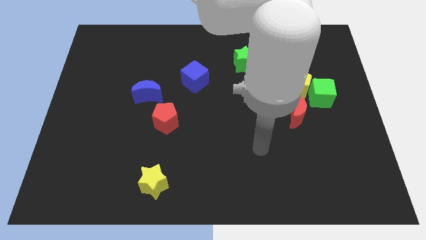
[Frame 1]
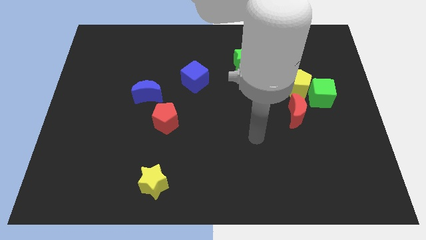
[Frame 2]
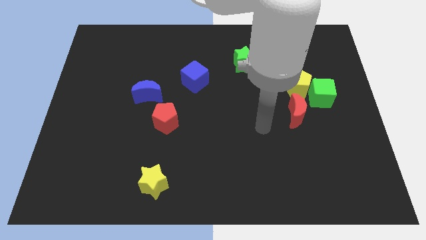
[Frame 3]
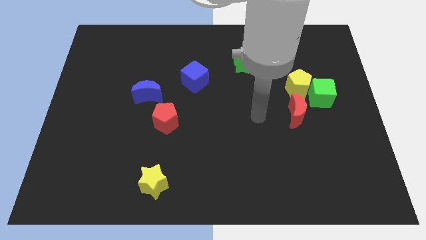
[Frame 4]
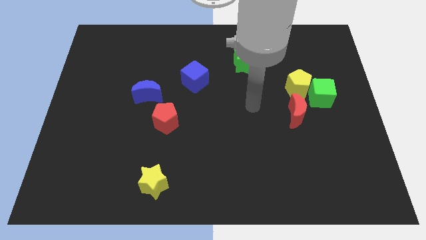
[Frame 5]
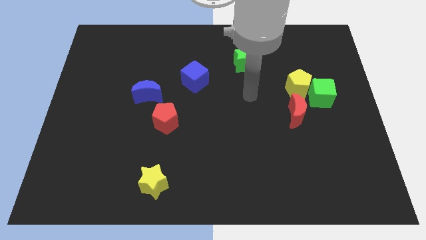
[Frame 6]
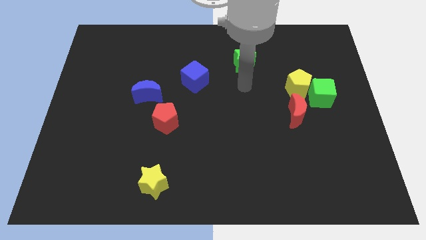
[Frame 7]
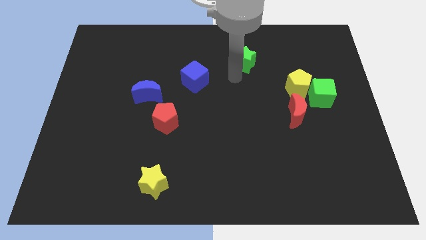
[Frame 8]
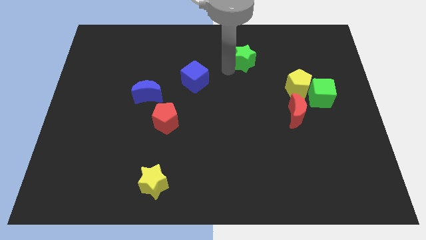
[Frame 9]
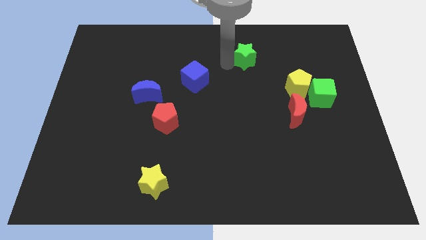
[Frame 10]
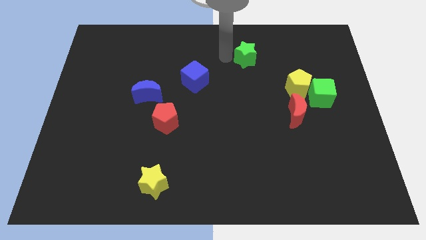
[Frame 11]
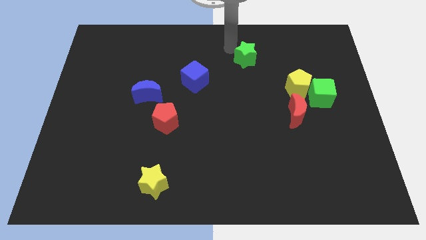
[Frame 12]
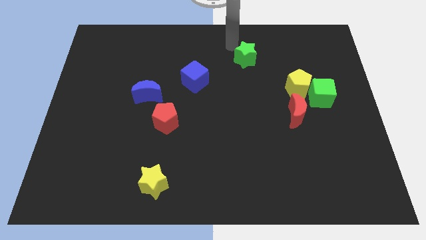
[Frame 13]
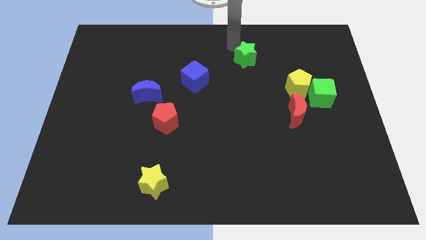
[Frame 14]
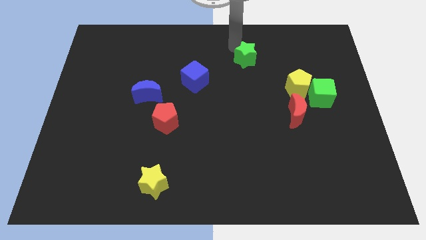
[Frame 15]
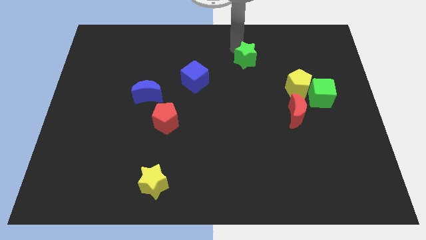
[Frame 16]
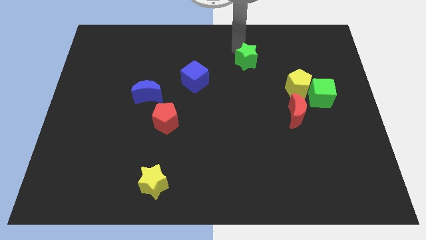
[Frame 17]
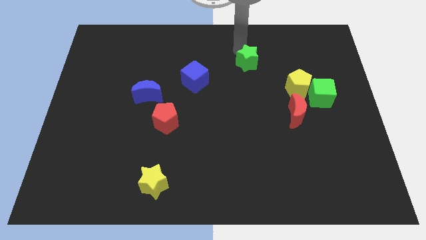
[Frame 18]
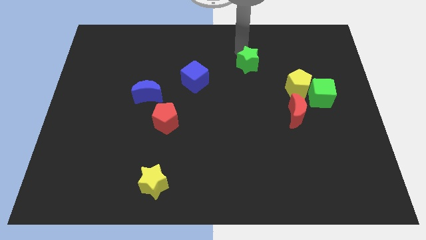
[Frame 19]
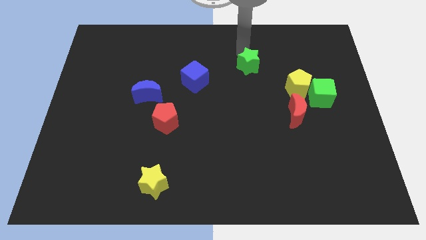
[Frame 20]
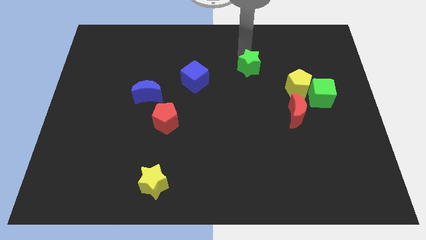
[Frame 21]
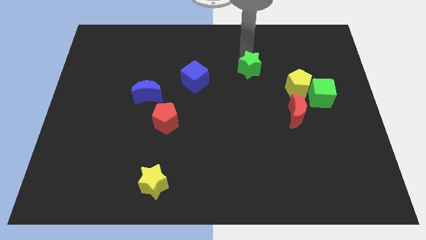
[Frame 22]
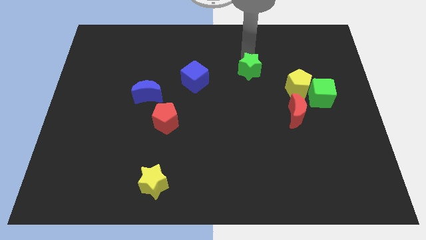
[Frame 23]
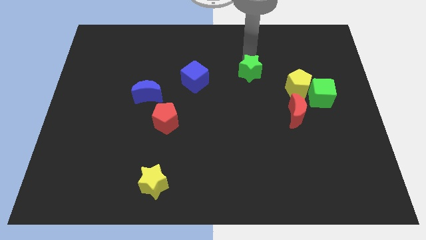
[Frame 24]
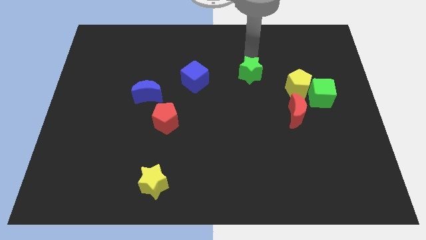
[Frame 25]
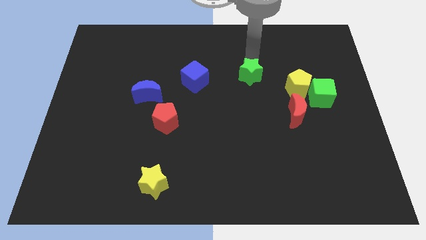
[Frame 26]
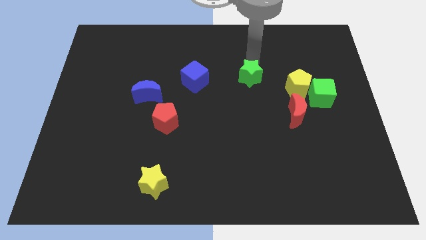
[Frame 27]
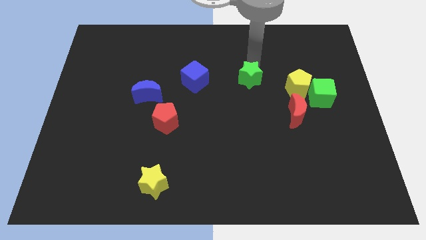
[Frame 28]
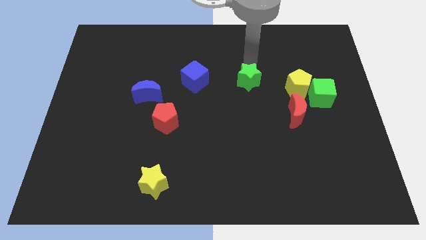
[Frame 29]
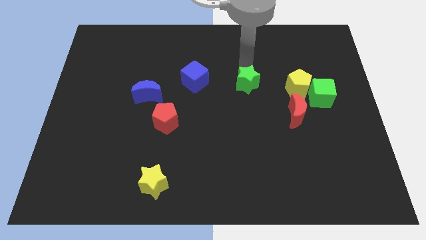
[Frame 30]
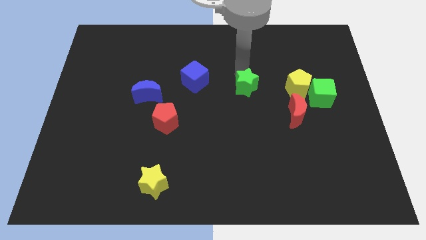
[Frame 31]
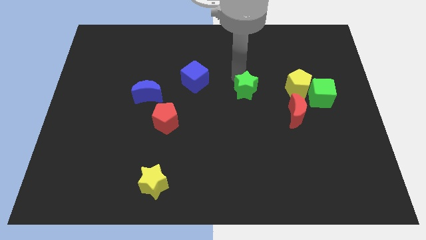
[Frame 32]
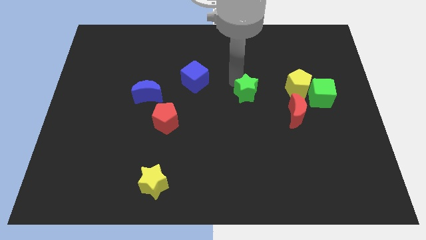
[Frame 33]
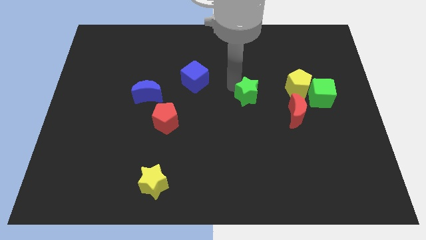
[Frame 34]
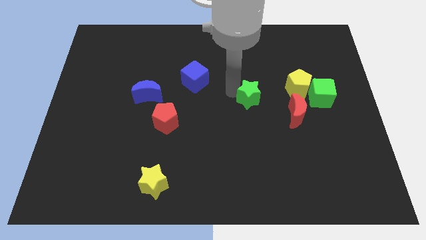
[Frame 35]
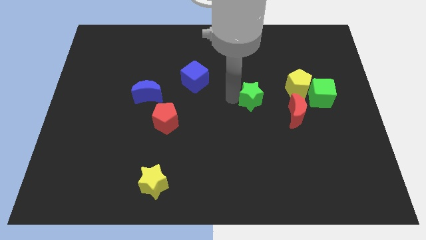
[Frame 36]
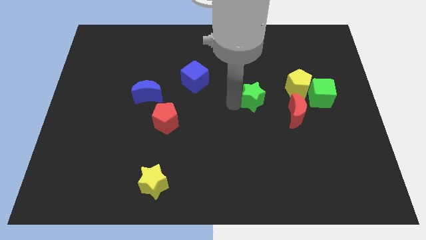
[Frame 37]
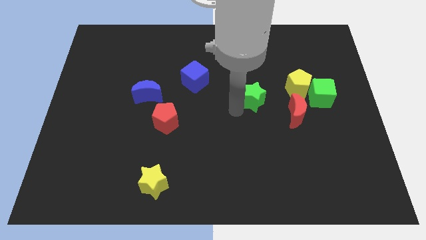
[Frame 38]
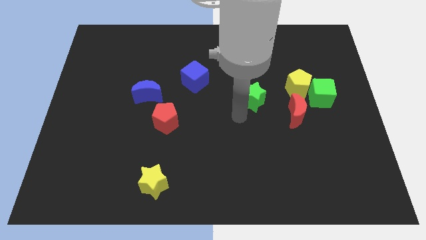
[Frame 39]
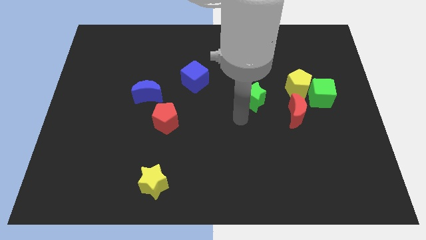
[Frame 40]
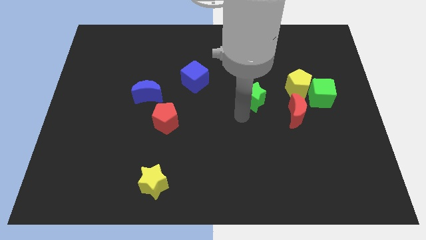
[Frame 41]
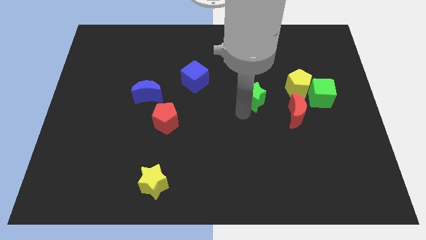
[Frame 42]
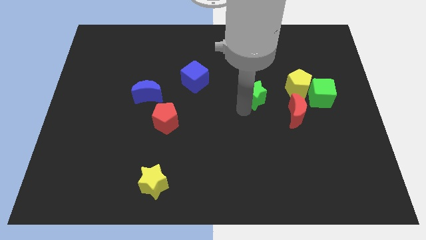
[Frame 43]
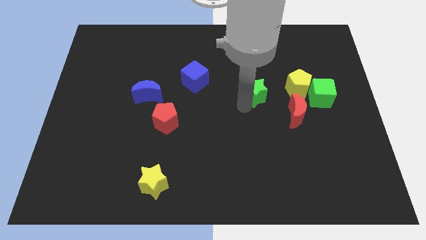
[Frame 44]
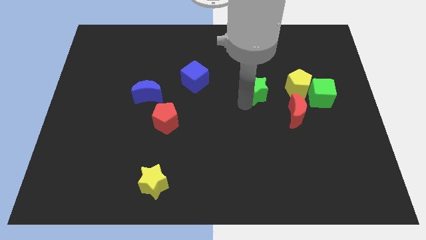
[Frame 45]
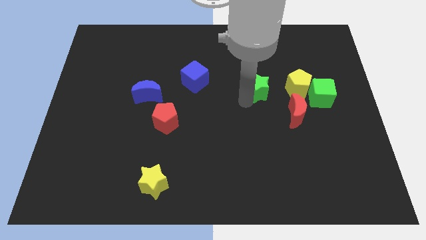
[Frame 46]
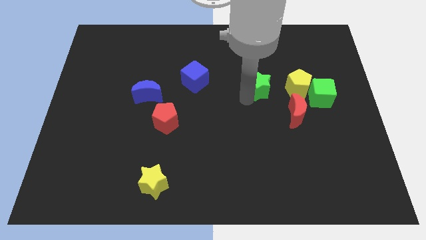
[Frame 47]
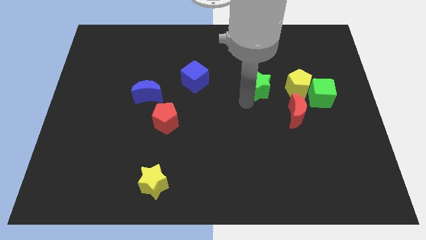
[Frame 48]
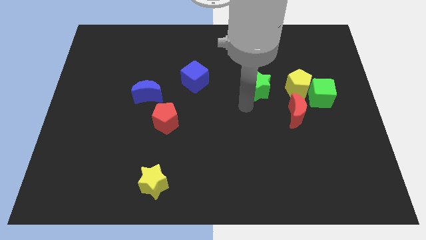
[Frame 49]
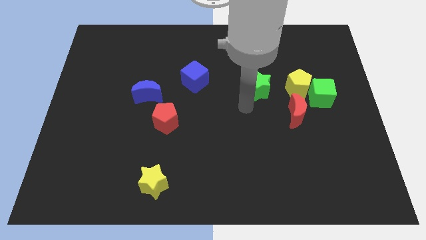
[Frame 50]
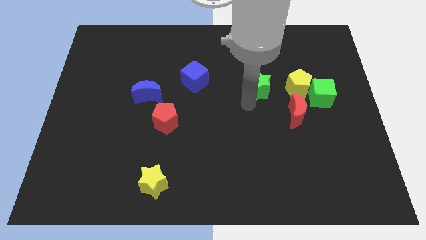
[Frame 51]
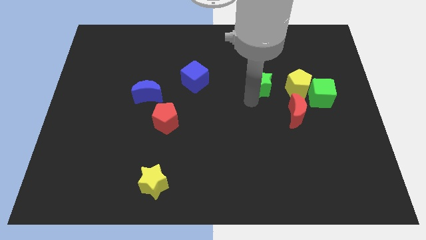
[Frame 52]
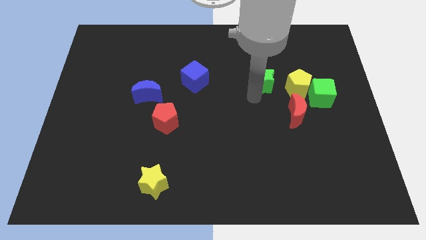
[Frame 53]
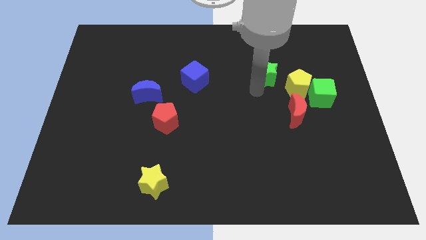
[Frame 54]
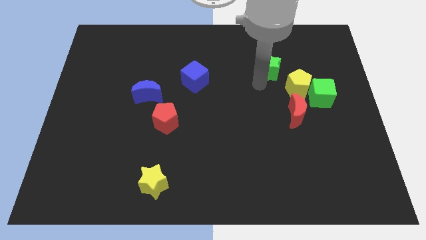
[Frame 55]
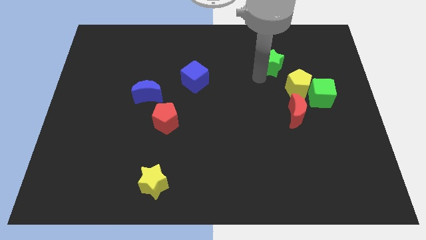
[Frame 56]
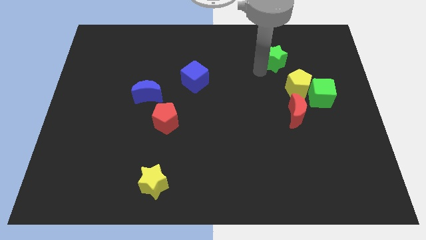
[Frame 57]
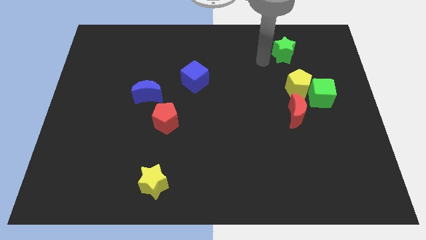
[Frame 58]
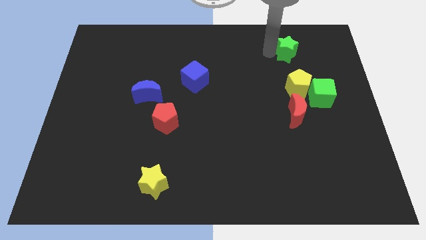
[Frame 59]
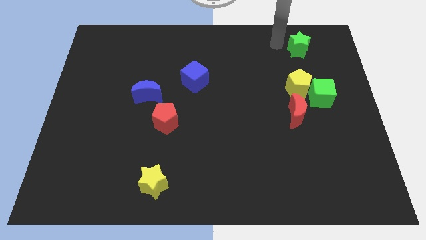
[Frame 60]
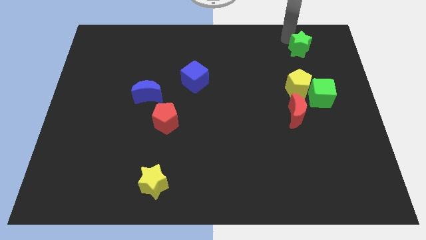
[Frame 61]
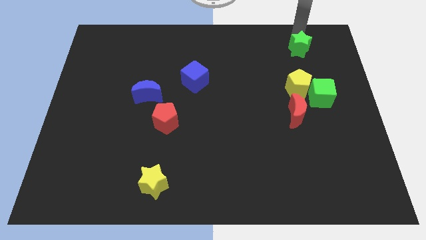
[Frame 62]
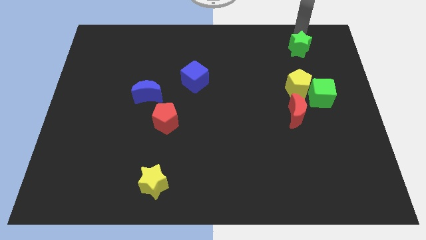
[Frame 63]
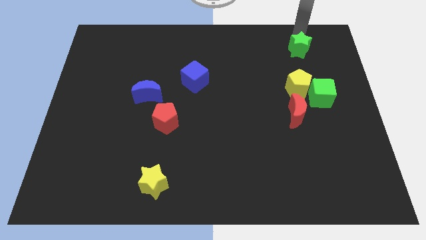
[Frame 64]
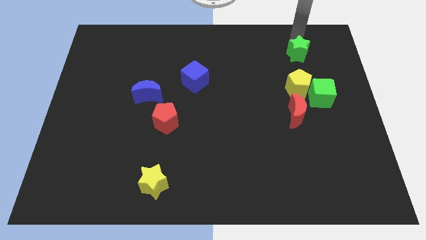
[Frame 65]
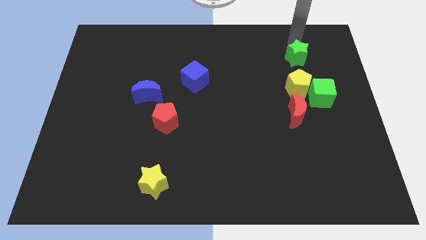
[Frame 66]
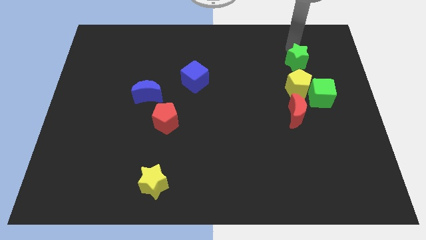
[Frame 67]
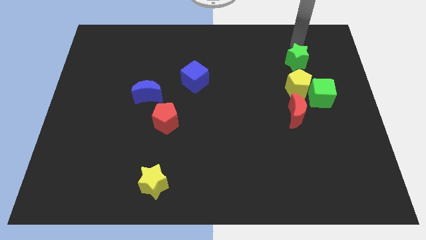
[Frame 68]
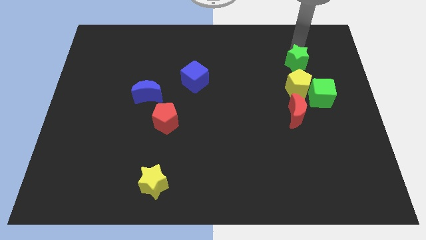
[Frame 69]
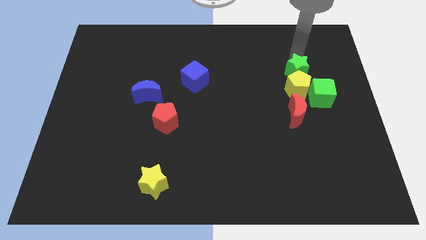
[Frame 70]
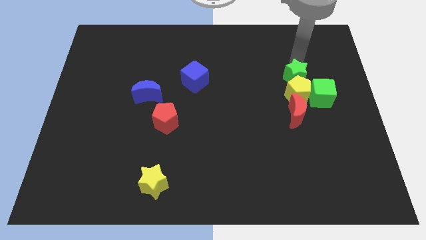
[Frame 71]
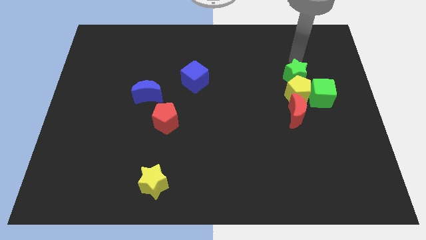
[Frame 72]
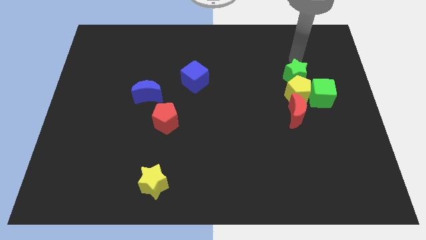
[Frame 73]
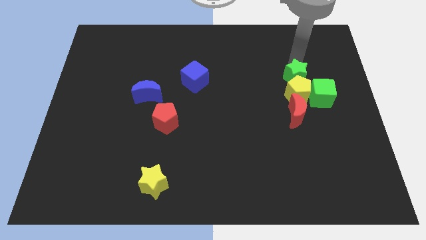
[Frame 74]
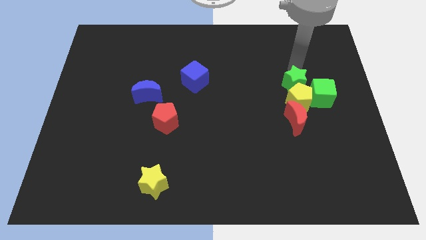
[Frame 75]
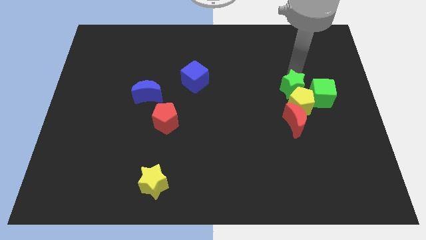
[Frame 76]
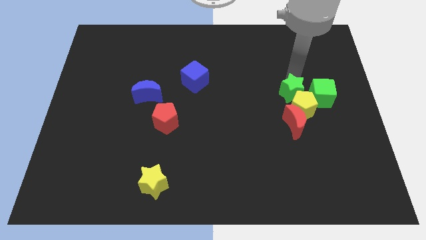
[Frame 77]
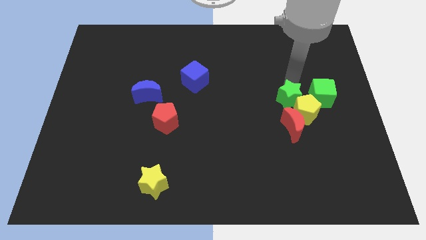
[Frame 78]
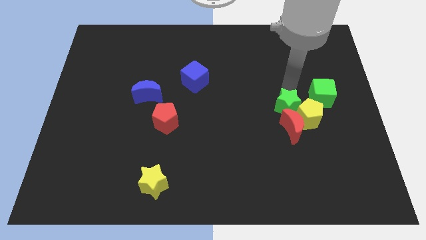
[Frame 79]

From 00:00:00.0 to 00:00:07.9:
slide the green star next to the red moon

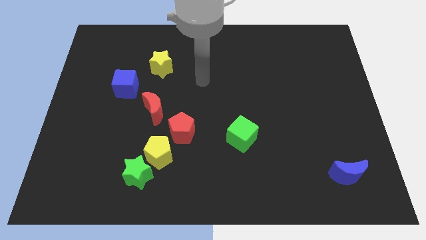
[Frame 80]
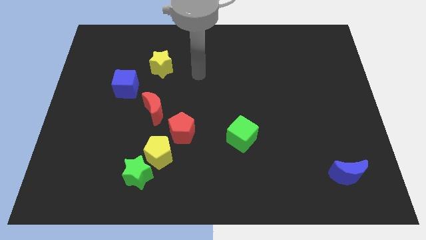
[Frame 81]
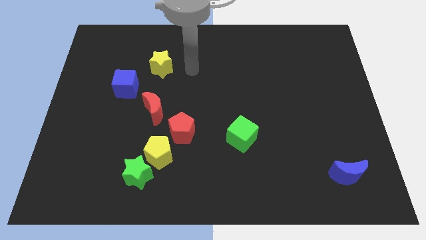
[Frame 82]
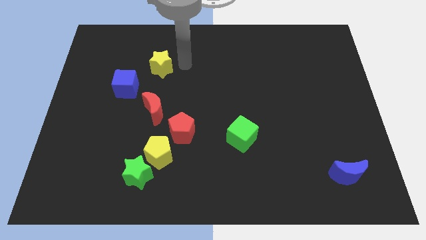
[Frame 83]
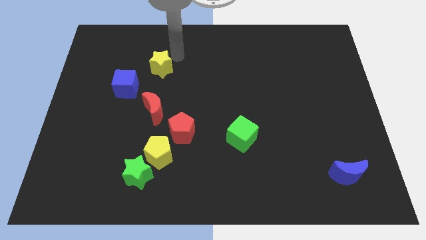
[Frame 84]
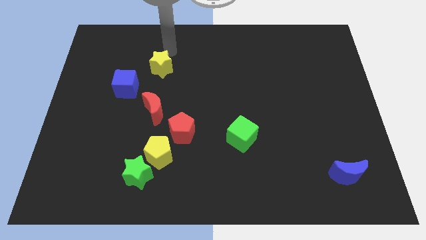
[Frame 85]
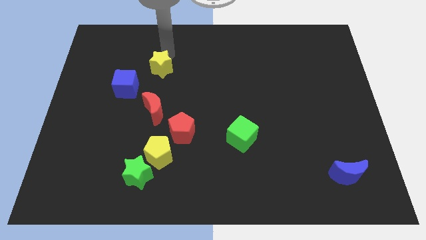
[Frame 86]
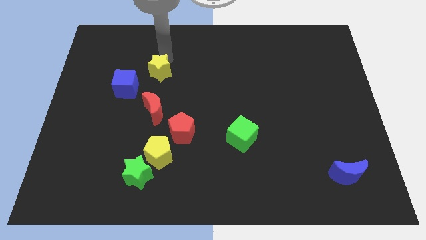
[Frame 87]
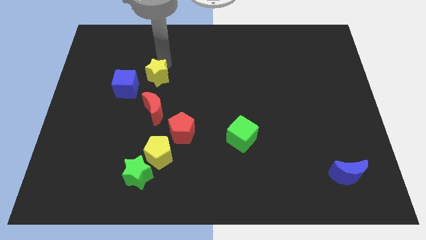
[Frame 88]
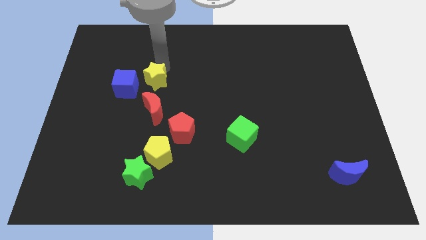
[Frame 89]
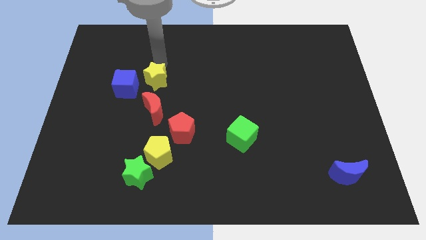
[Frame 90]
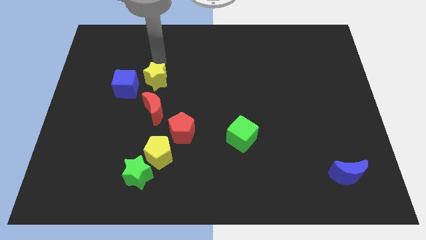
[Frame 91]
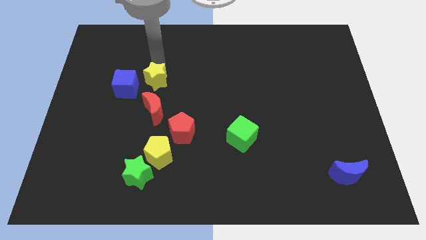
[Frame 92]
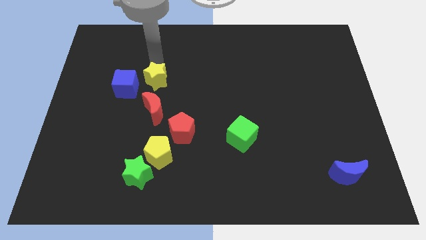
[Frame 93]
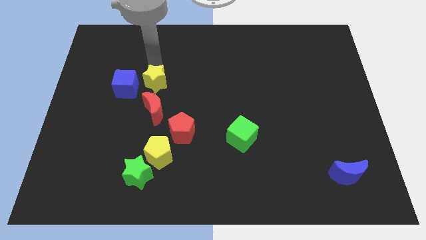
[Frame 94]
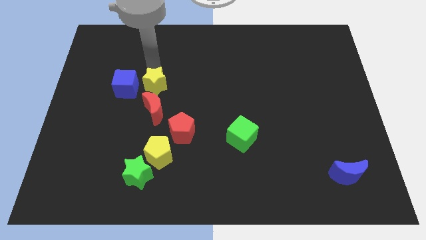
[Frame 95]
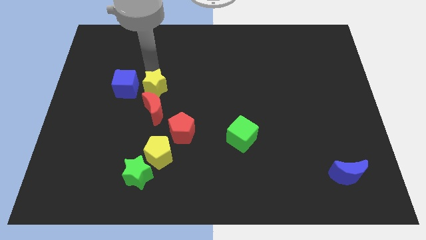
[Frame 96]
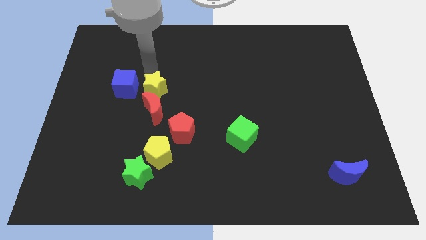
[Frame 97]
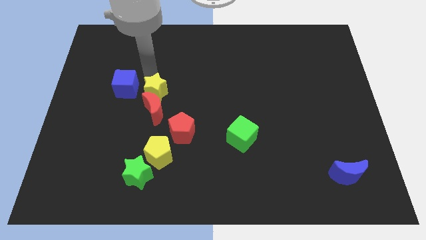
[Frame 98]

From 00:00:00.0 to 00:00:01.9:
move the yellow star to the red moon
